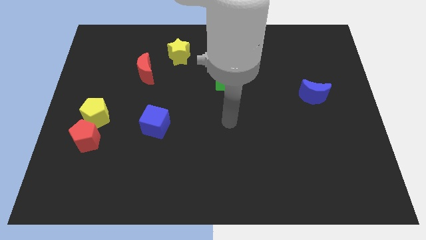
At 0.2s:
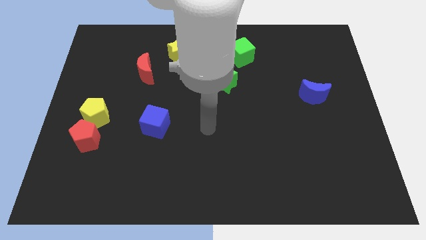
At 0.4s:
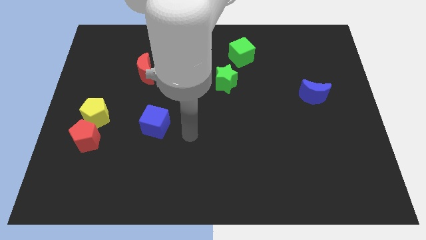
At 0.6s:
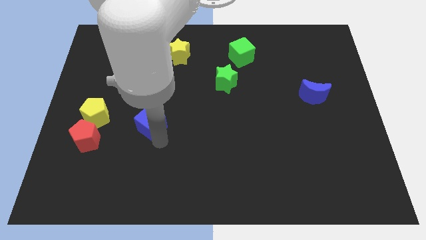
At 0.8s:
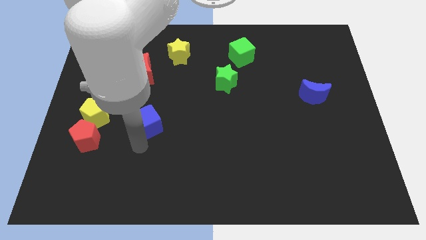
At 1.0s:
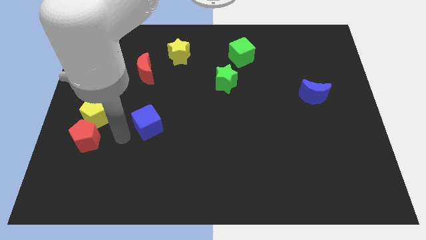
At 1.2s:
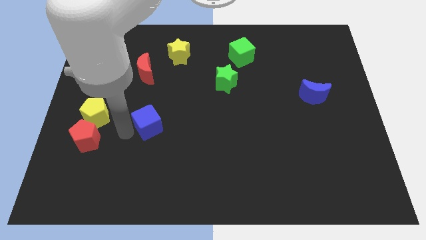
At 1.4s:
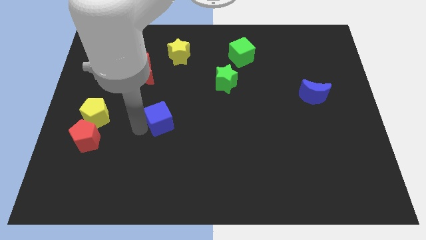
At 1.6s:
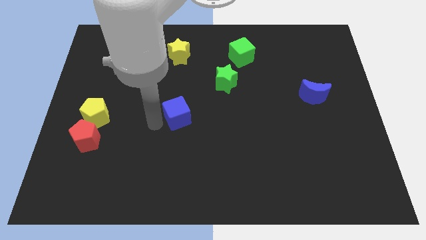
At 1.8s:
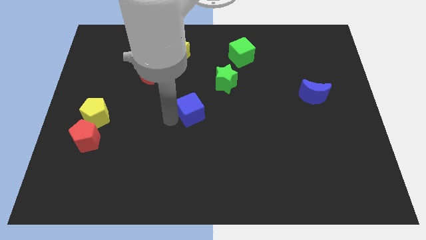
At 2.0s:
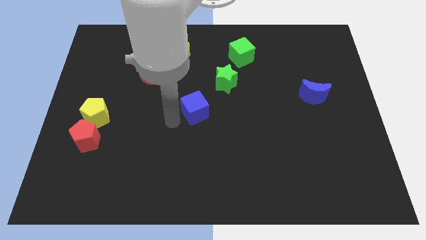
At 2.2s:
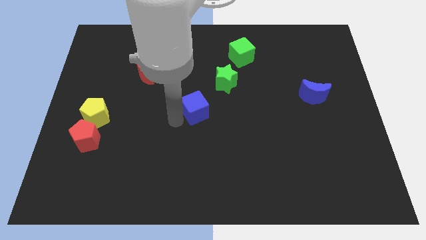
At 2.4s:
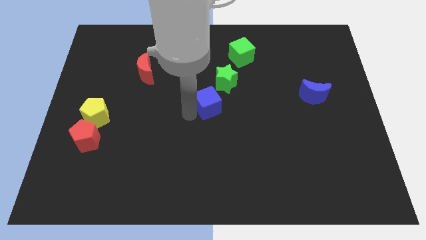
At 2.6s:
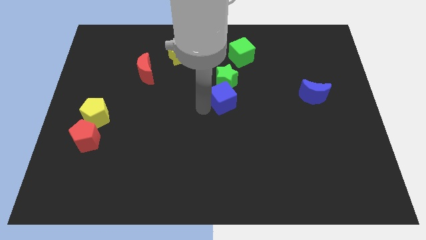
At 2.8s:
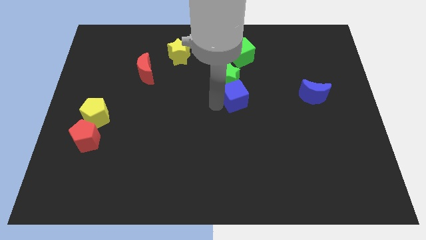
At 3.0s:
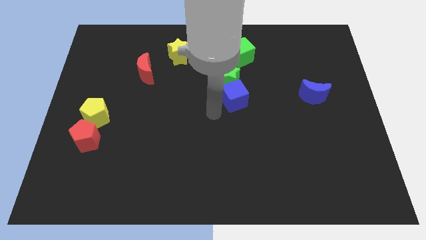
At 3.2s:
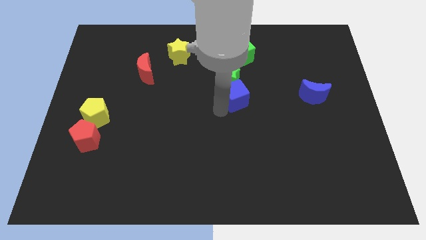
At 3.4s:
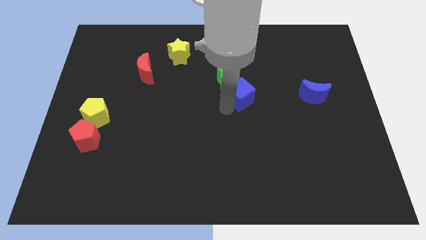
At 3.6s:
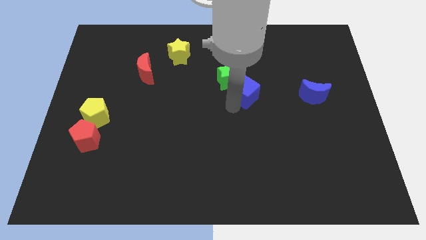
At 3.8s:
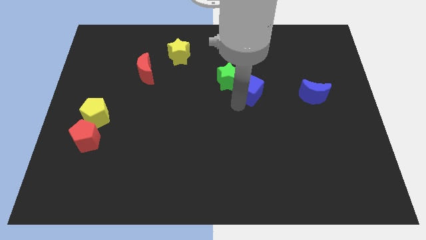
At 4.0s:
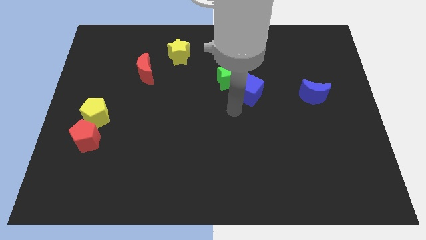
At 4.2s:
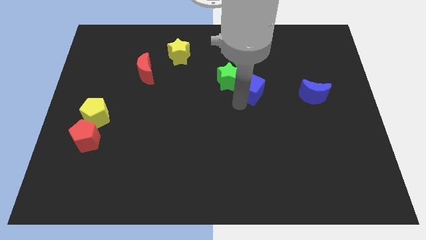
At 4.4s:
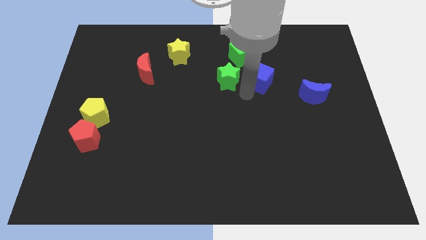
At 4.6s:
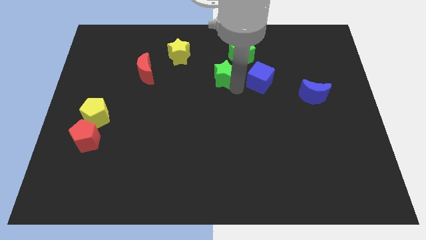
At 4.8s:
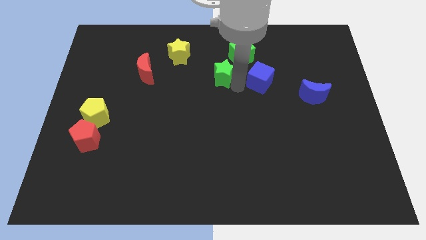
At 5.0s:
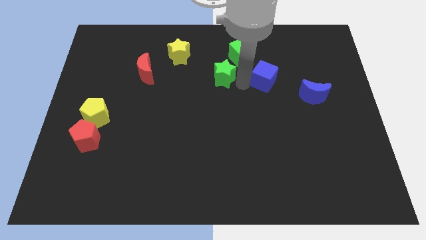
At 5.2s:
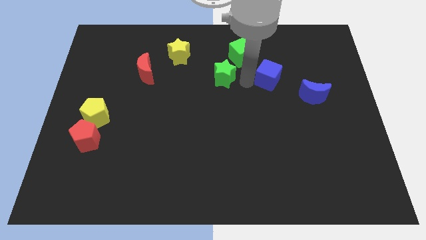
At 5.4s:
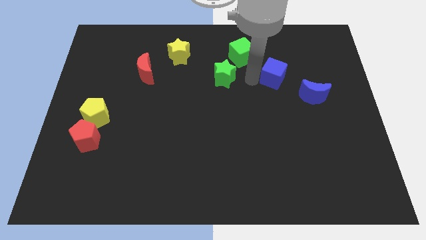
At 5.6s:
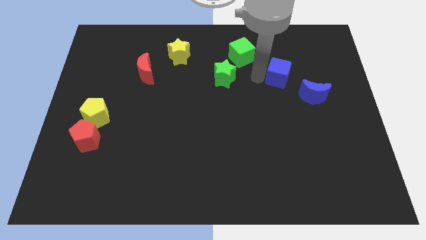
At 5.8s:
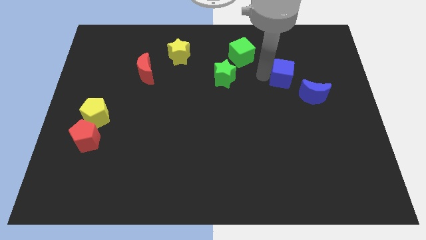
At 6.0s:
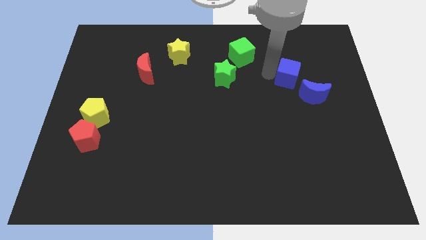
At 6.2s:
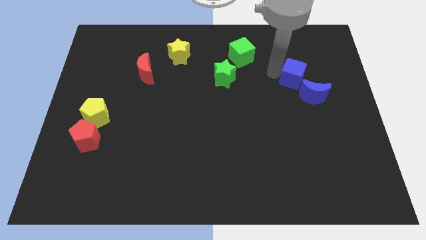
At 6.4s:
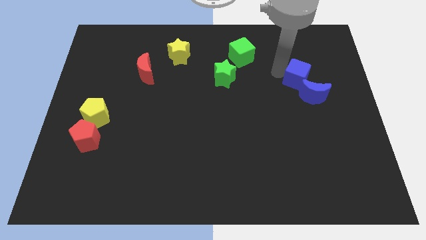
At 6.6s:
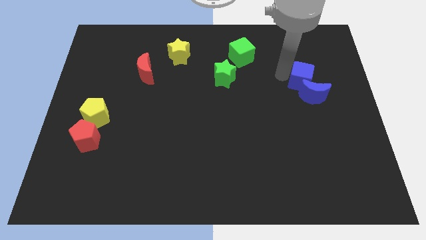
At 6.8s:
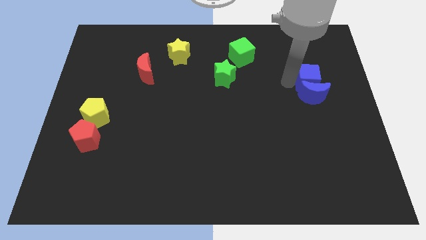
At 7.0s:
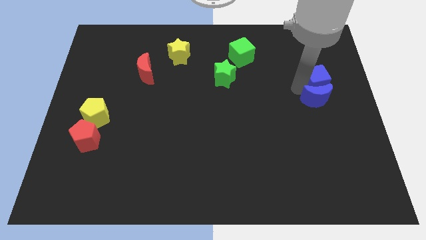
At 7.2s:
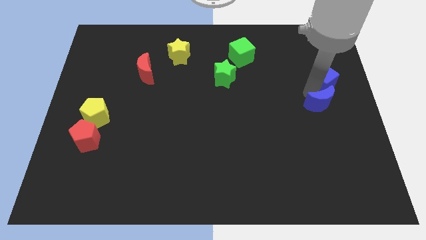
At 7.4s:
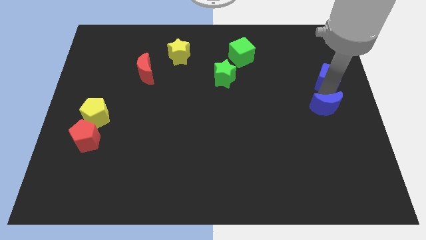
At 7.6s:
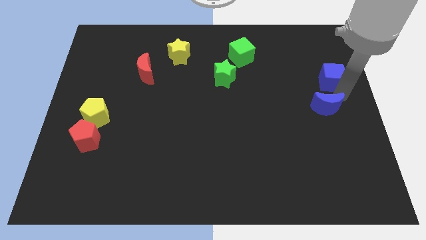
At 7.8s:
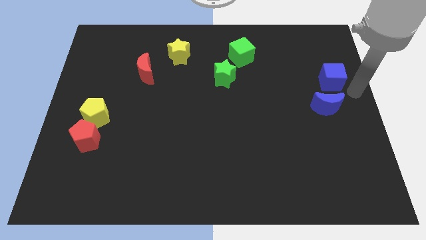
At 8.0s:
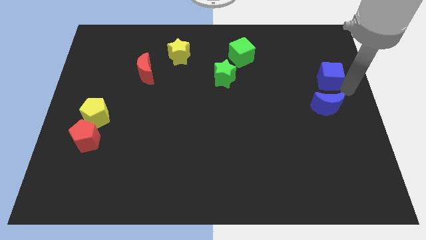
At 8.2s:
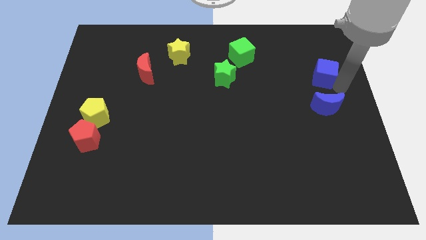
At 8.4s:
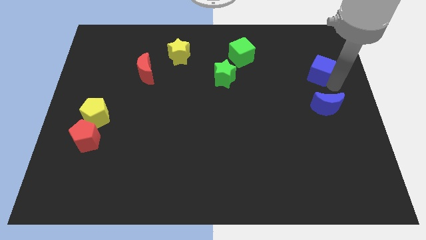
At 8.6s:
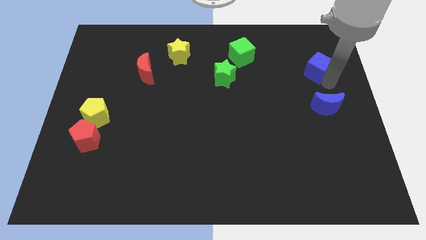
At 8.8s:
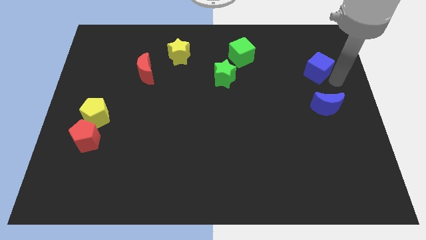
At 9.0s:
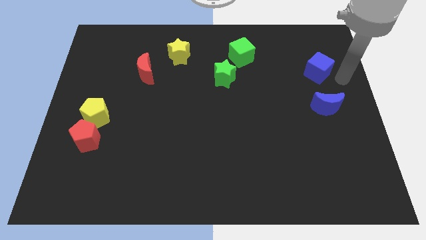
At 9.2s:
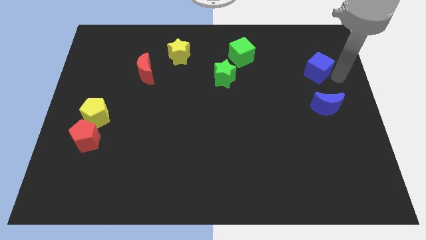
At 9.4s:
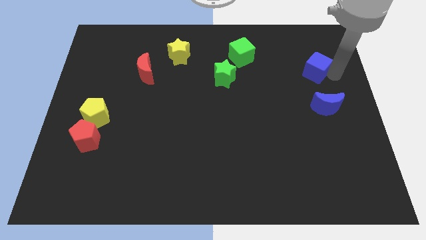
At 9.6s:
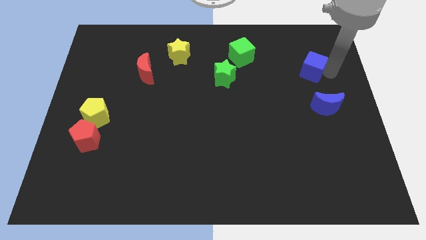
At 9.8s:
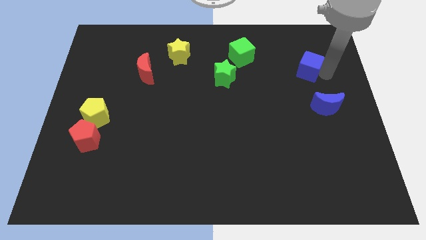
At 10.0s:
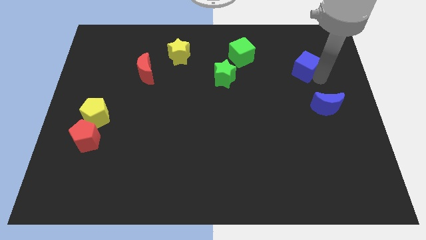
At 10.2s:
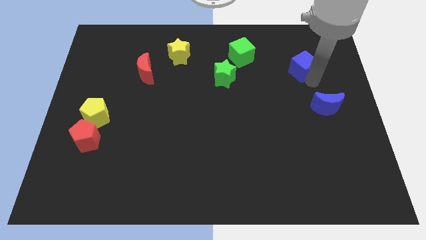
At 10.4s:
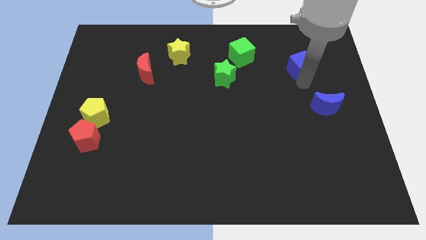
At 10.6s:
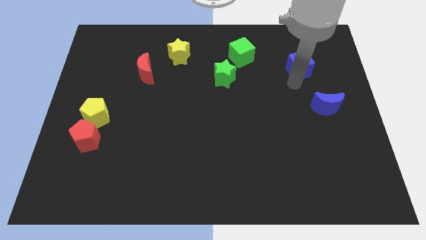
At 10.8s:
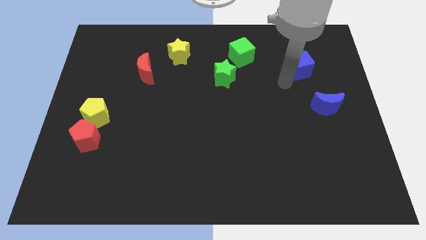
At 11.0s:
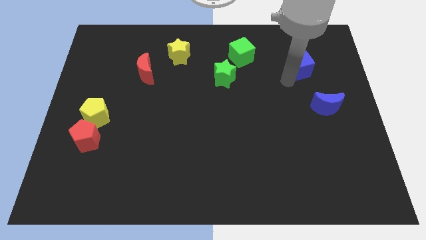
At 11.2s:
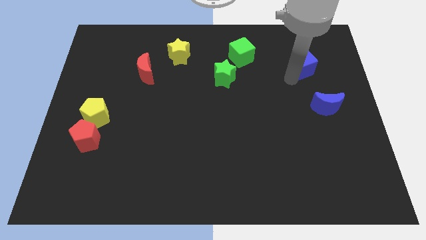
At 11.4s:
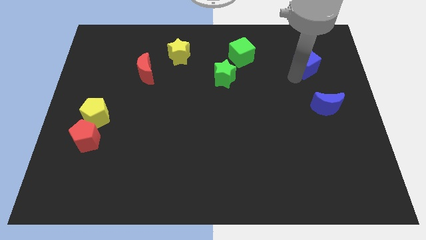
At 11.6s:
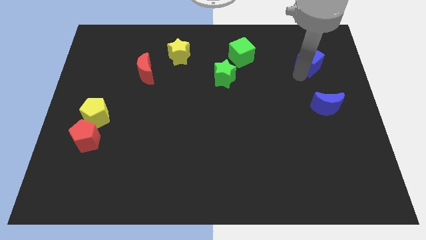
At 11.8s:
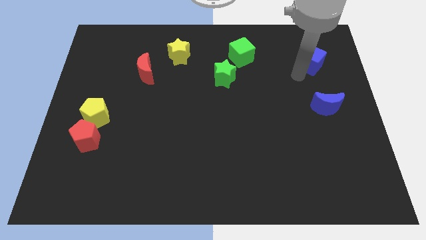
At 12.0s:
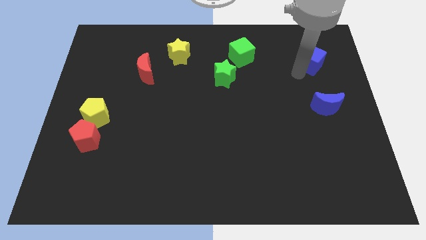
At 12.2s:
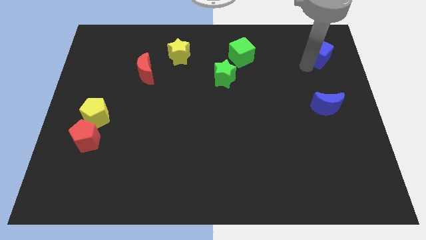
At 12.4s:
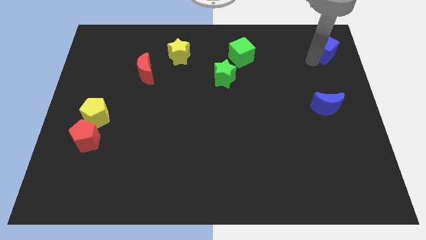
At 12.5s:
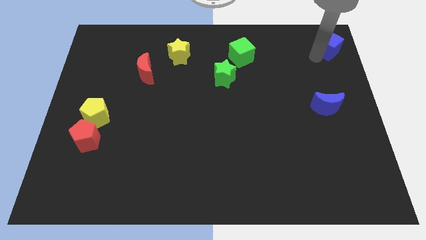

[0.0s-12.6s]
put the blue cube to the top right corner
